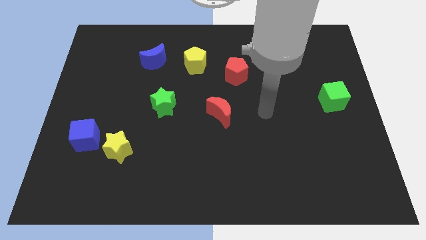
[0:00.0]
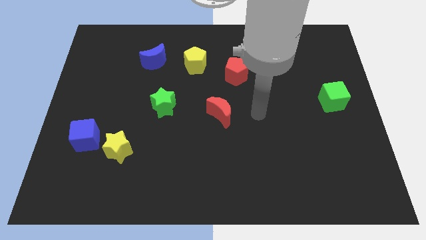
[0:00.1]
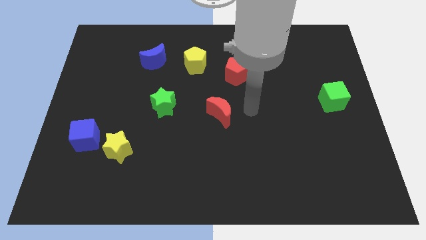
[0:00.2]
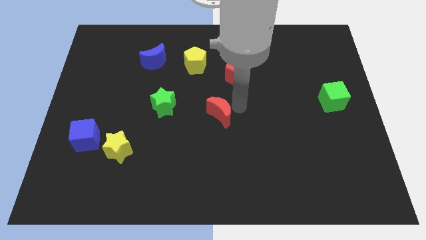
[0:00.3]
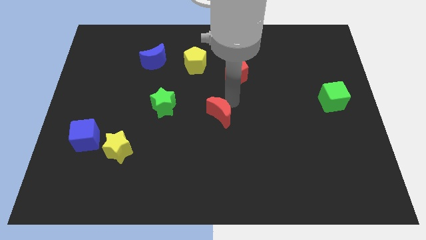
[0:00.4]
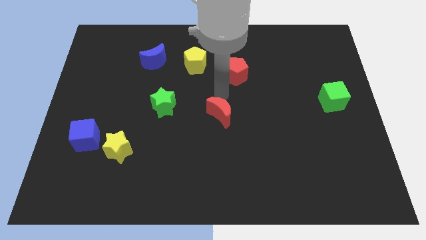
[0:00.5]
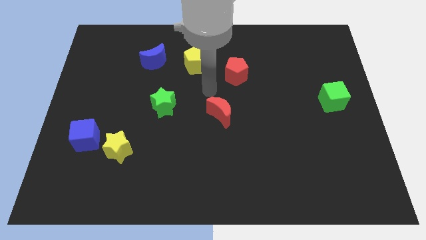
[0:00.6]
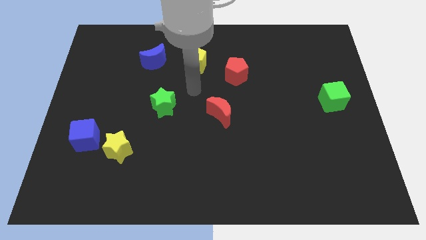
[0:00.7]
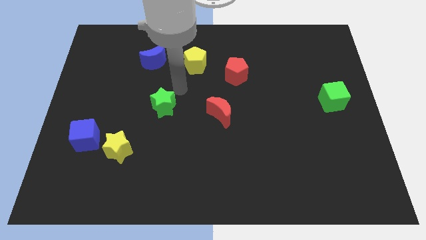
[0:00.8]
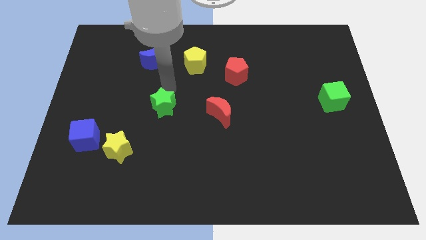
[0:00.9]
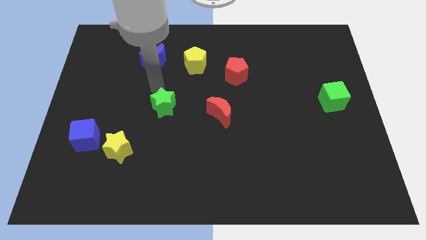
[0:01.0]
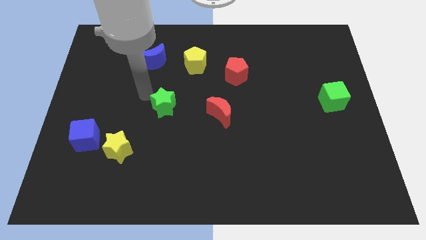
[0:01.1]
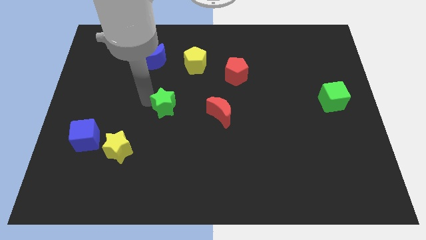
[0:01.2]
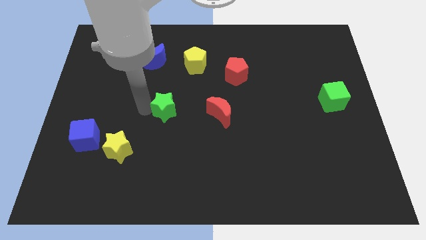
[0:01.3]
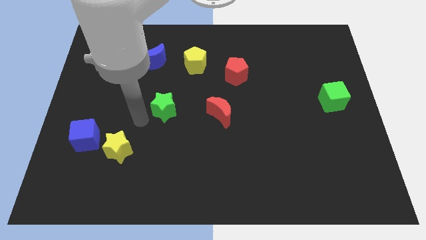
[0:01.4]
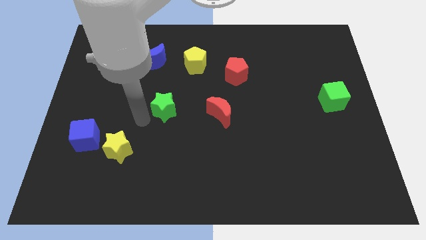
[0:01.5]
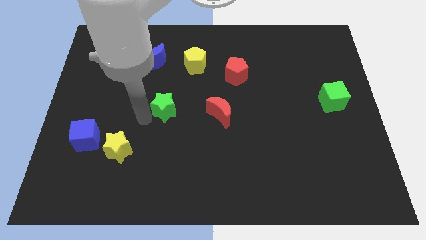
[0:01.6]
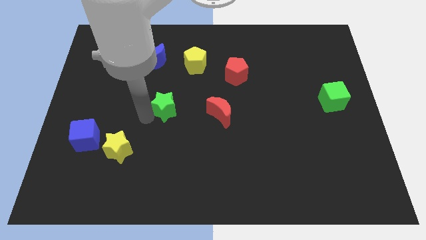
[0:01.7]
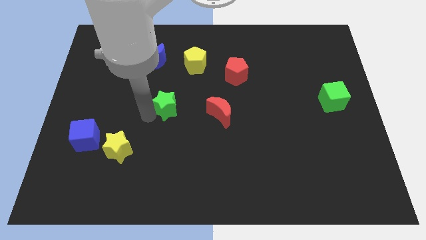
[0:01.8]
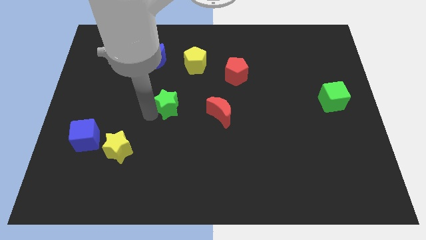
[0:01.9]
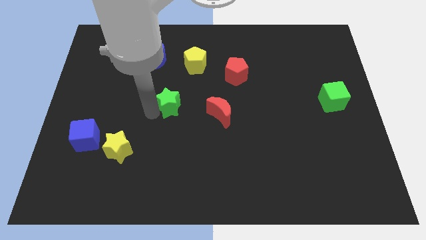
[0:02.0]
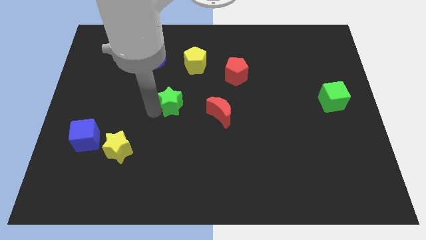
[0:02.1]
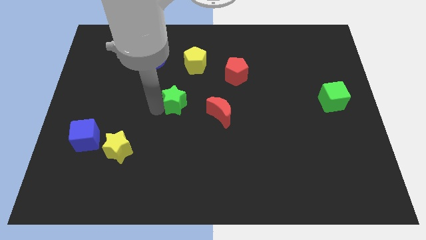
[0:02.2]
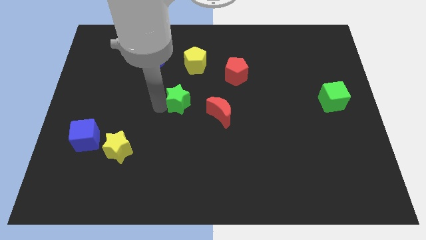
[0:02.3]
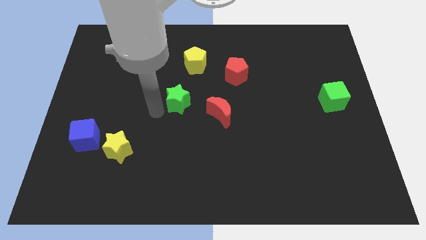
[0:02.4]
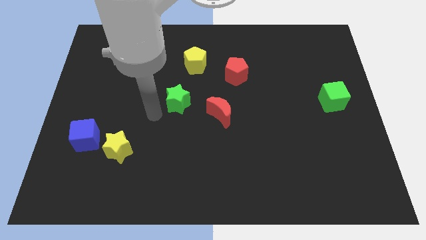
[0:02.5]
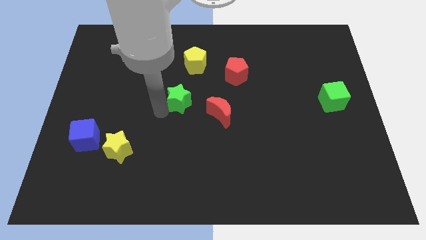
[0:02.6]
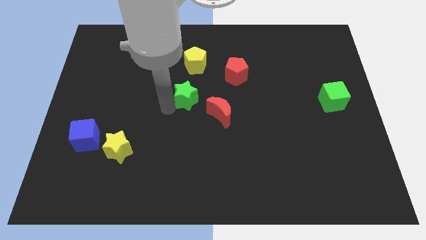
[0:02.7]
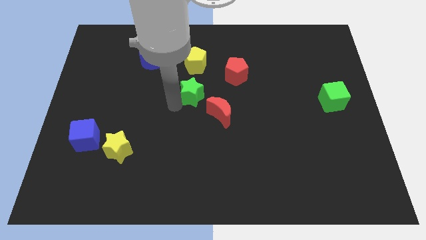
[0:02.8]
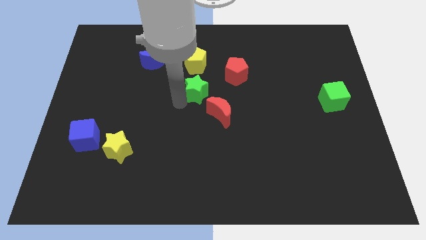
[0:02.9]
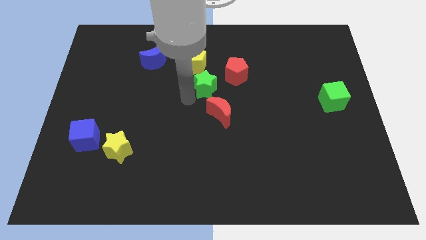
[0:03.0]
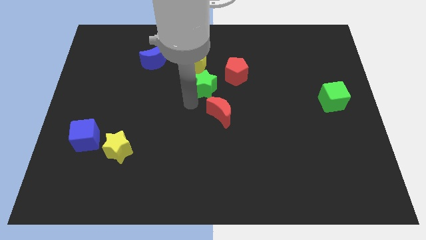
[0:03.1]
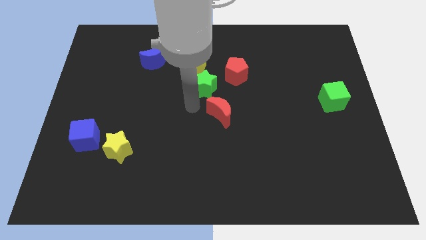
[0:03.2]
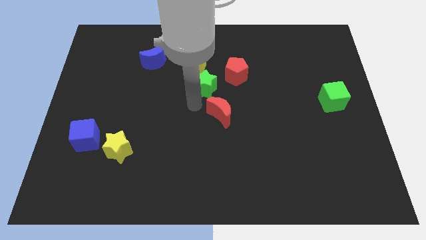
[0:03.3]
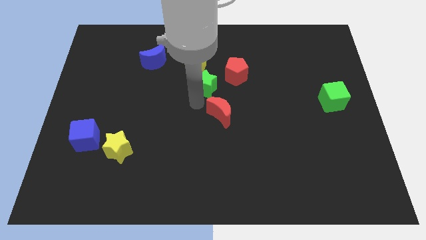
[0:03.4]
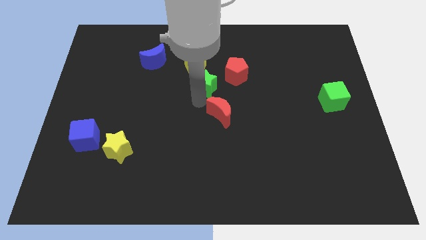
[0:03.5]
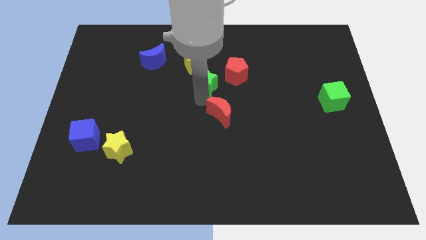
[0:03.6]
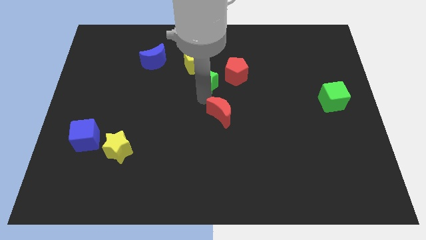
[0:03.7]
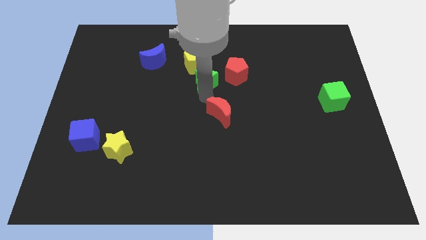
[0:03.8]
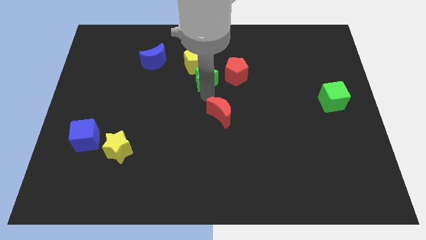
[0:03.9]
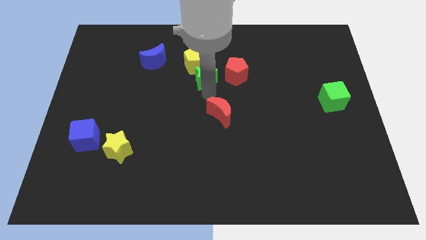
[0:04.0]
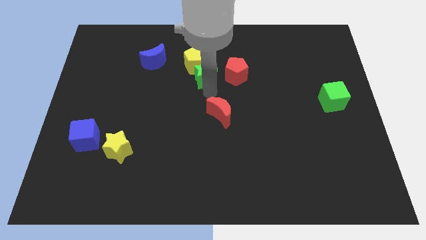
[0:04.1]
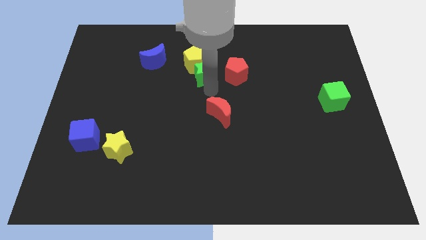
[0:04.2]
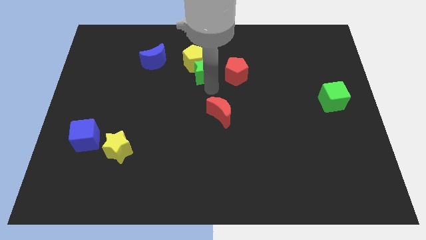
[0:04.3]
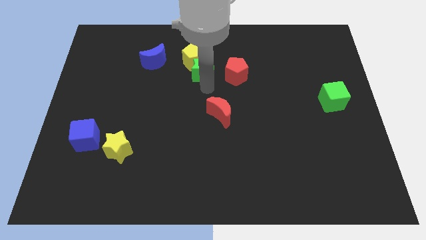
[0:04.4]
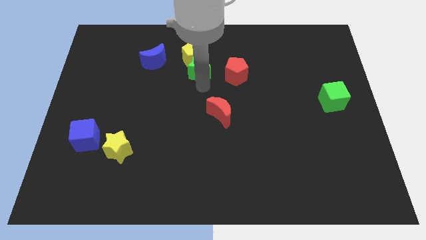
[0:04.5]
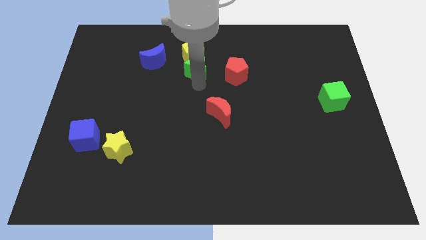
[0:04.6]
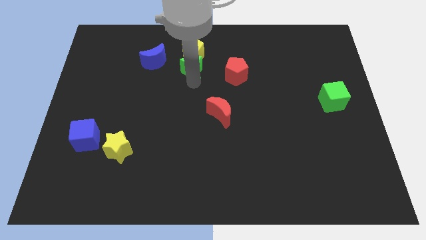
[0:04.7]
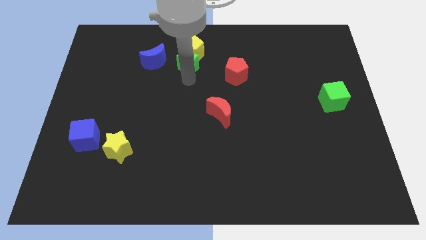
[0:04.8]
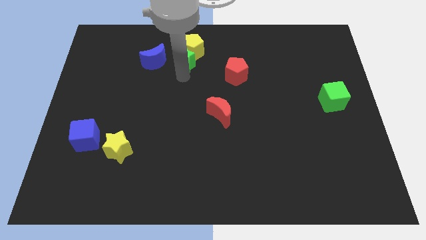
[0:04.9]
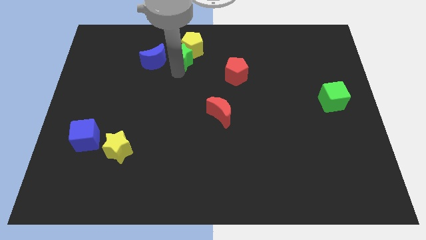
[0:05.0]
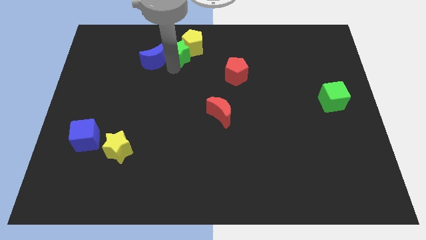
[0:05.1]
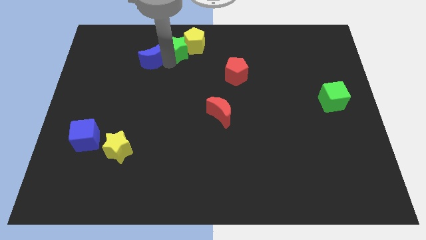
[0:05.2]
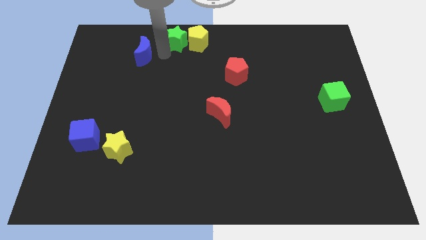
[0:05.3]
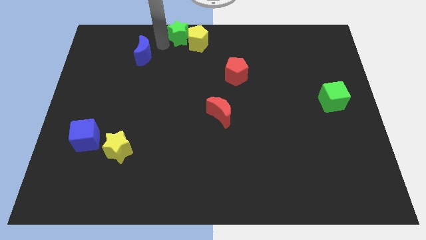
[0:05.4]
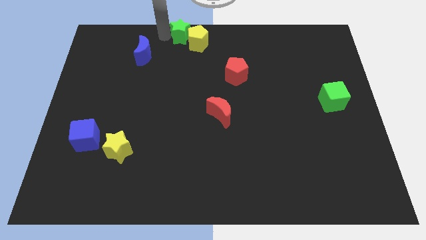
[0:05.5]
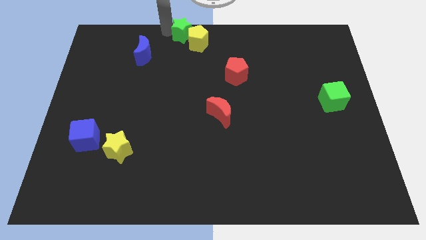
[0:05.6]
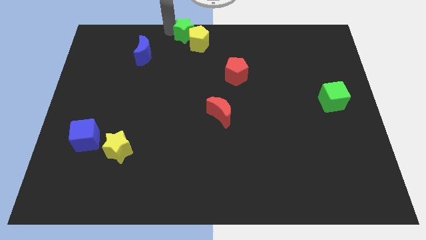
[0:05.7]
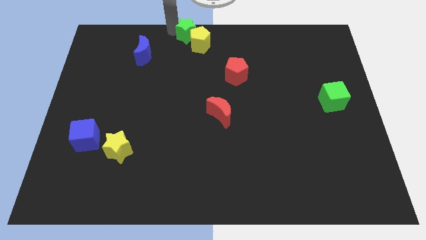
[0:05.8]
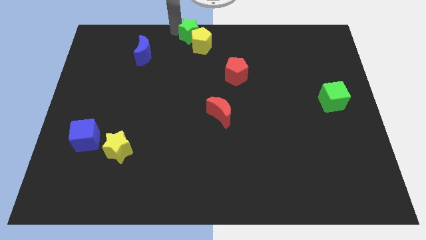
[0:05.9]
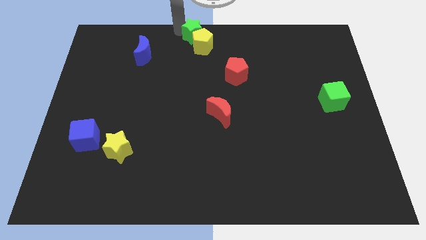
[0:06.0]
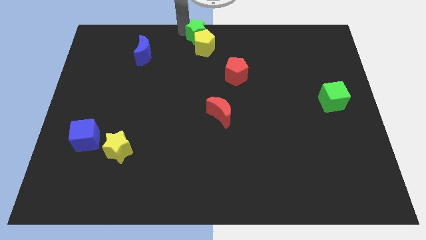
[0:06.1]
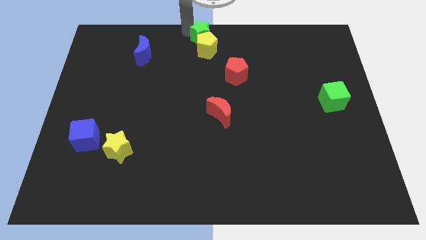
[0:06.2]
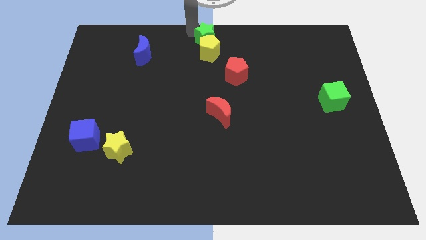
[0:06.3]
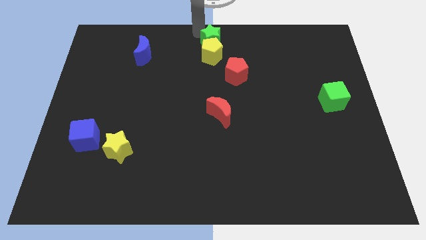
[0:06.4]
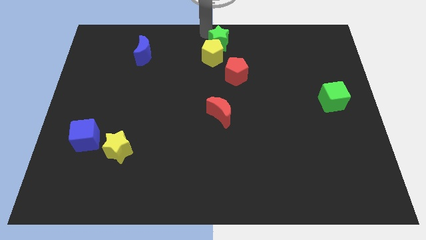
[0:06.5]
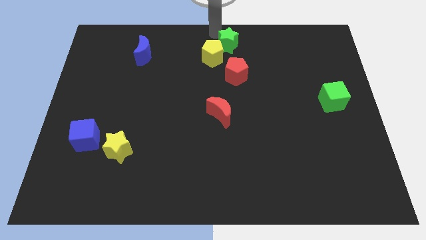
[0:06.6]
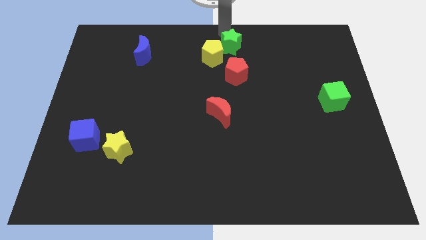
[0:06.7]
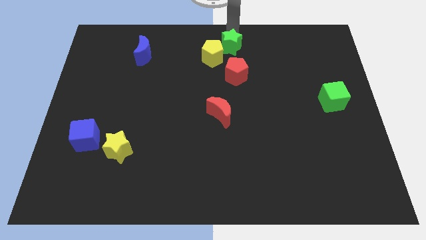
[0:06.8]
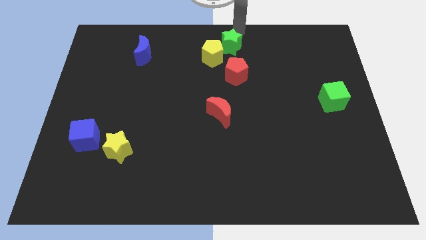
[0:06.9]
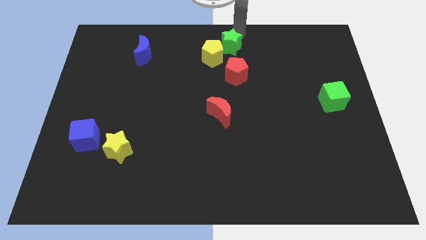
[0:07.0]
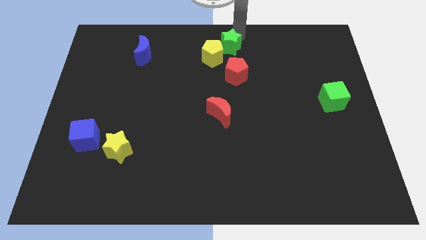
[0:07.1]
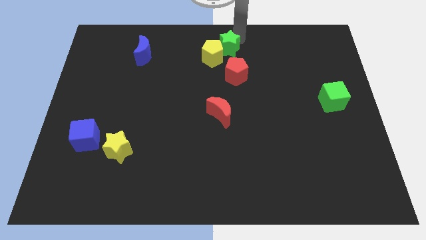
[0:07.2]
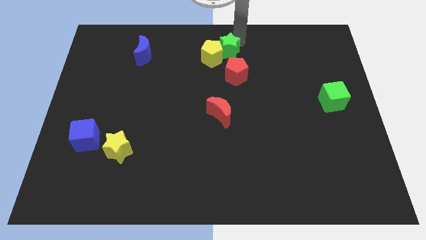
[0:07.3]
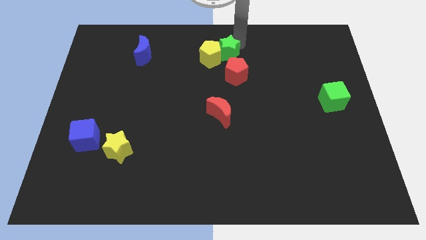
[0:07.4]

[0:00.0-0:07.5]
put the green star to the top left of the red pentagon

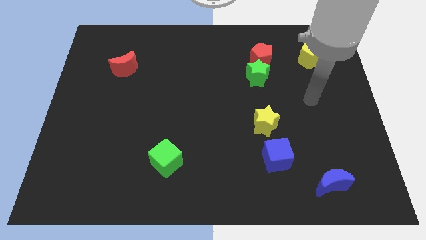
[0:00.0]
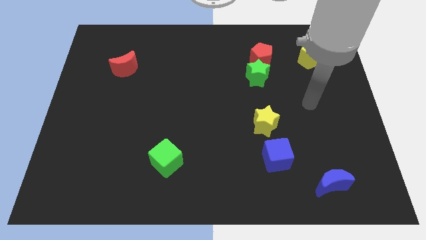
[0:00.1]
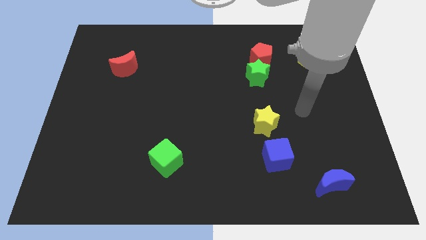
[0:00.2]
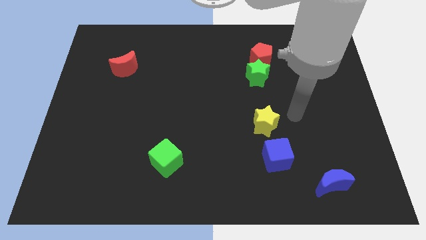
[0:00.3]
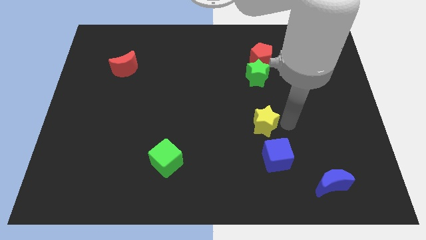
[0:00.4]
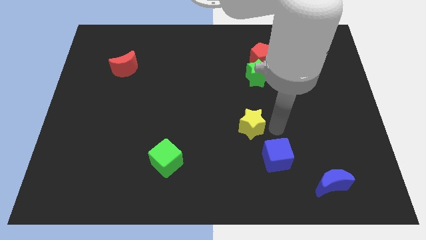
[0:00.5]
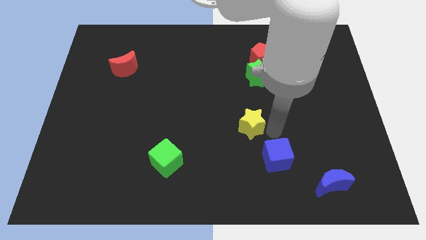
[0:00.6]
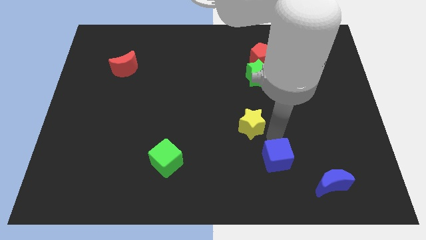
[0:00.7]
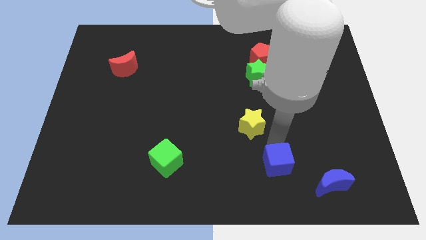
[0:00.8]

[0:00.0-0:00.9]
slide the blue cube to the left of the blue moon
